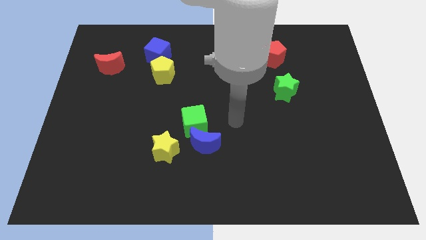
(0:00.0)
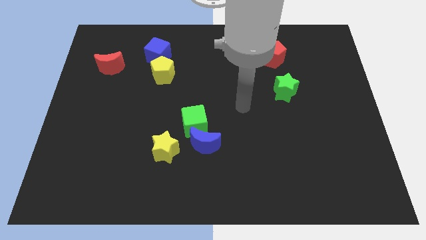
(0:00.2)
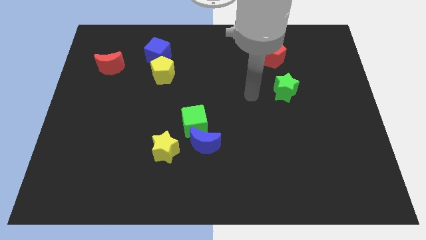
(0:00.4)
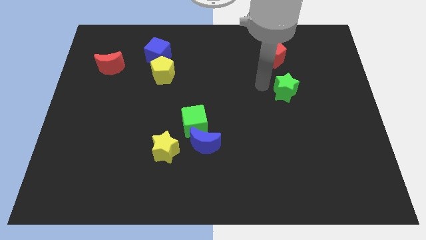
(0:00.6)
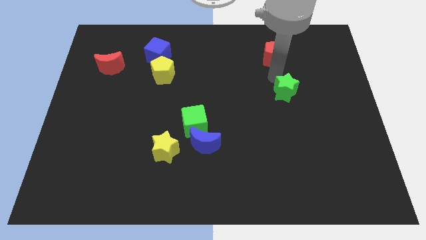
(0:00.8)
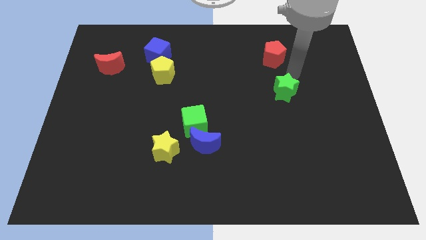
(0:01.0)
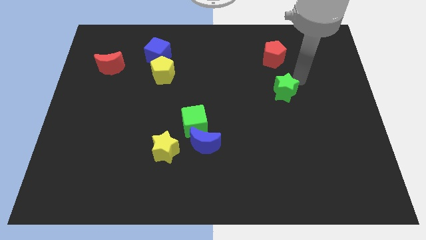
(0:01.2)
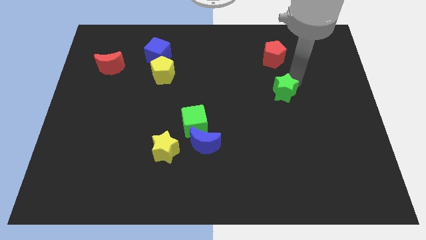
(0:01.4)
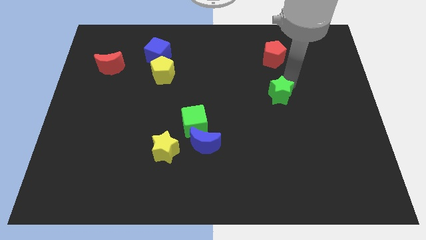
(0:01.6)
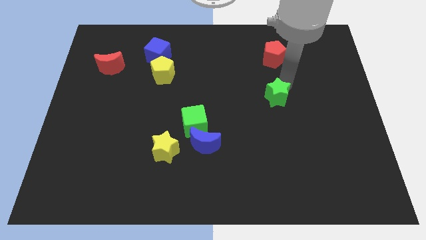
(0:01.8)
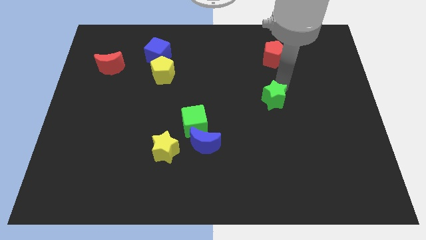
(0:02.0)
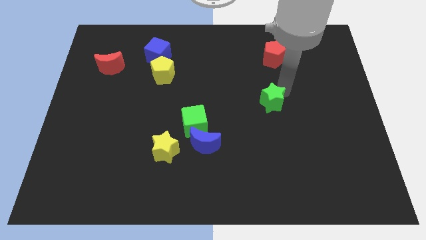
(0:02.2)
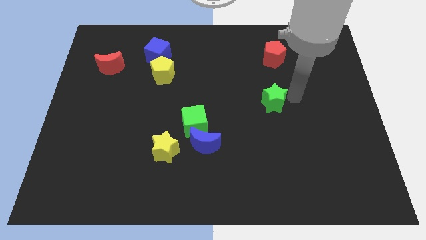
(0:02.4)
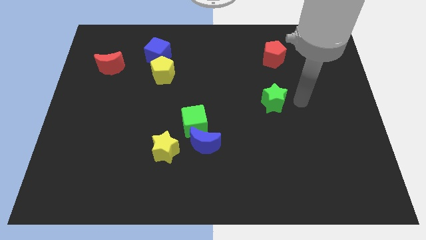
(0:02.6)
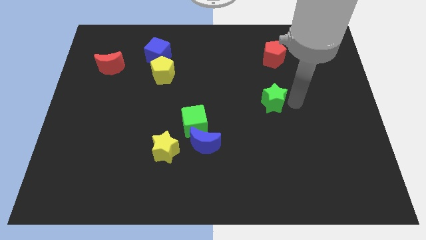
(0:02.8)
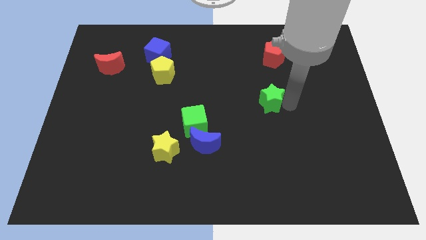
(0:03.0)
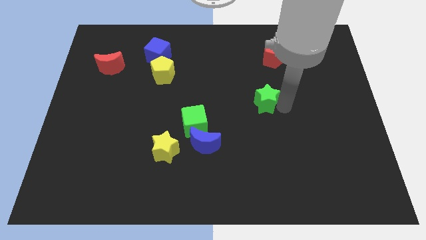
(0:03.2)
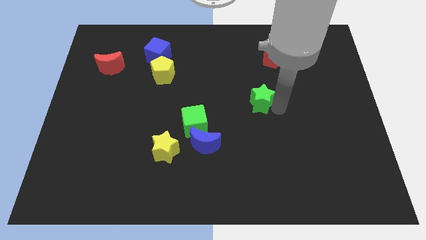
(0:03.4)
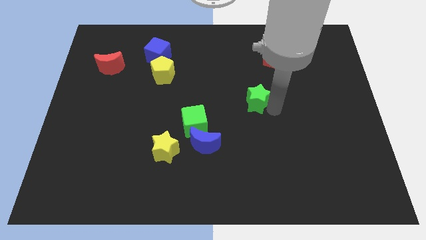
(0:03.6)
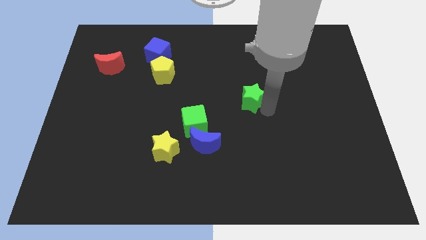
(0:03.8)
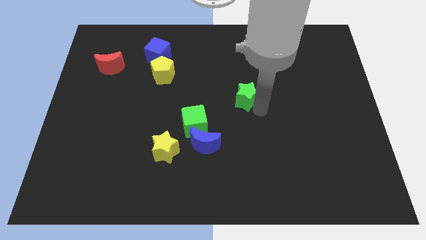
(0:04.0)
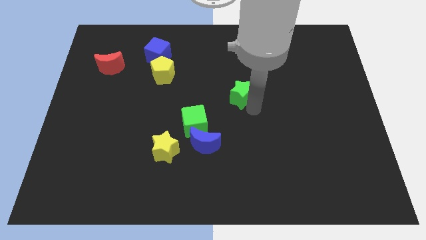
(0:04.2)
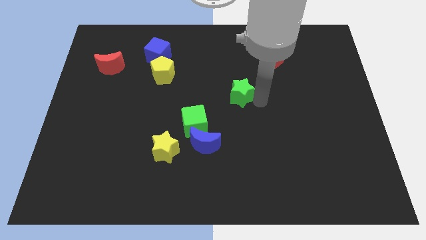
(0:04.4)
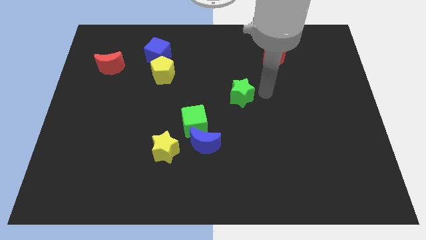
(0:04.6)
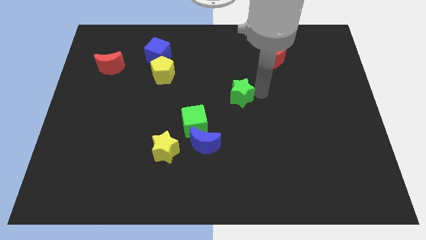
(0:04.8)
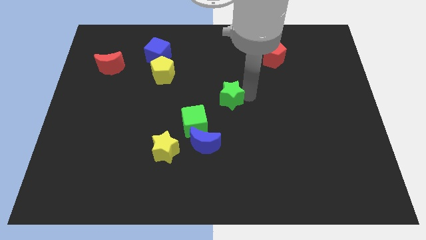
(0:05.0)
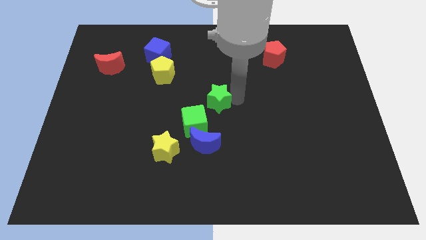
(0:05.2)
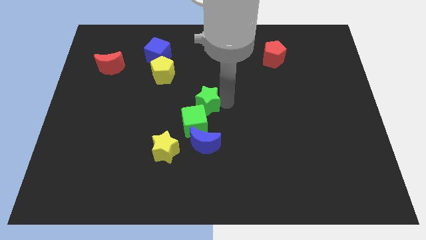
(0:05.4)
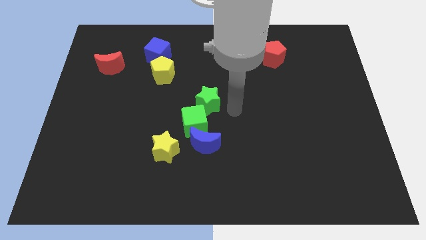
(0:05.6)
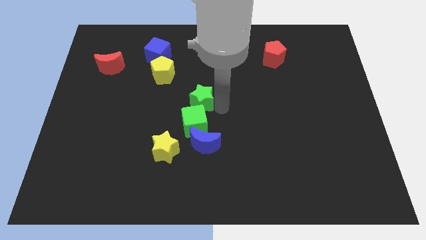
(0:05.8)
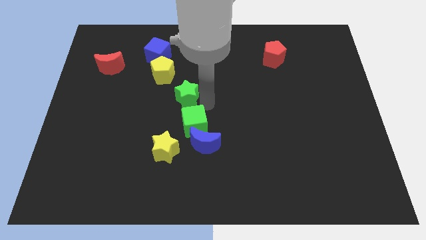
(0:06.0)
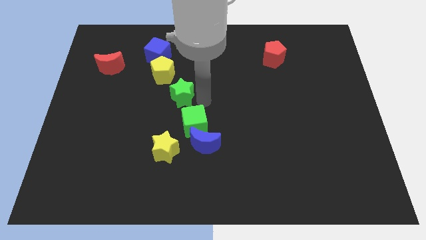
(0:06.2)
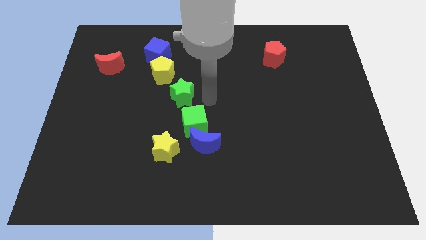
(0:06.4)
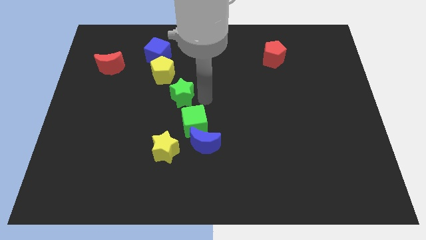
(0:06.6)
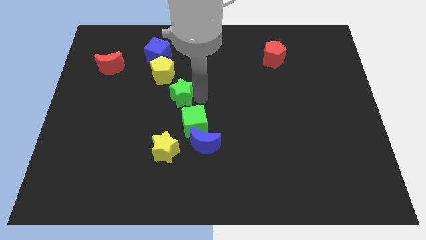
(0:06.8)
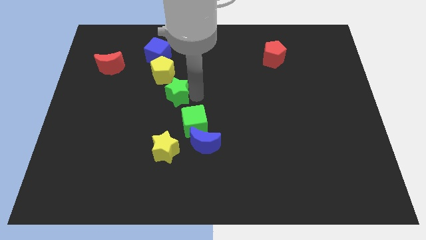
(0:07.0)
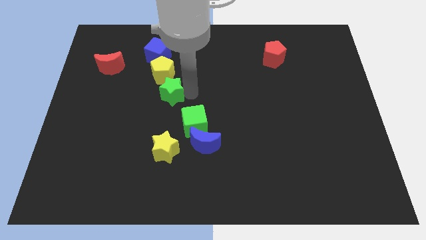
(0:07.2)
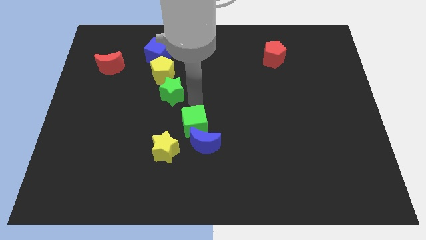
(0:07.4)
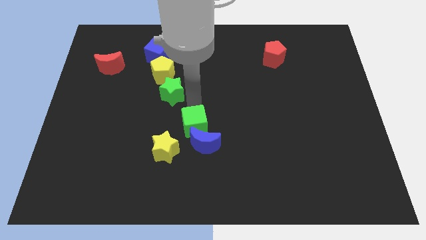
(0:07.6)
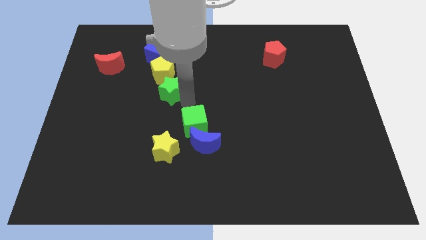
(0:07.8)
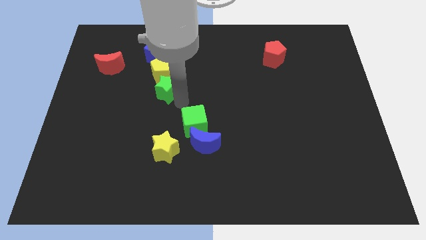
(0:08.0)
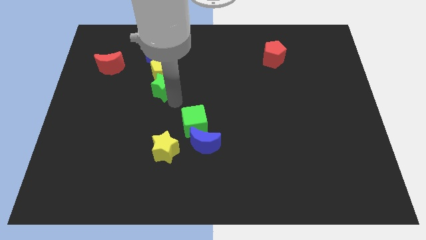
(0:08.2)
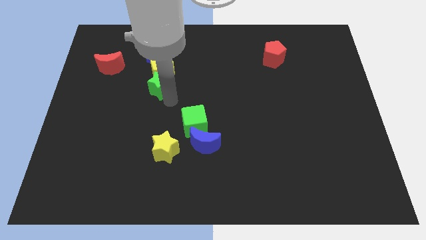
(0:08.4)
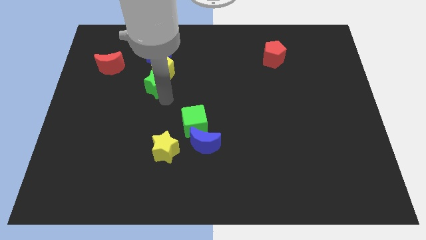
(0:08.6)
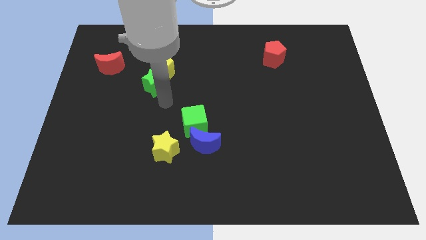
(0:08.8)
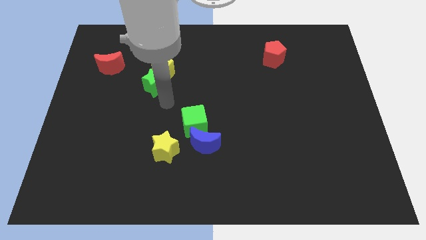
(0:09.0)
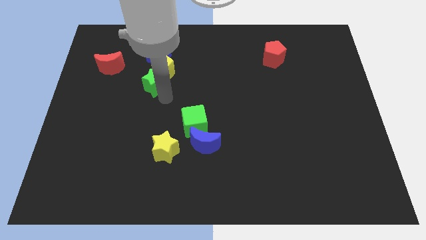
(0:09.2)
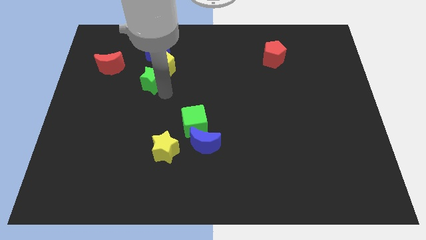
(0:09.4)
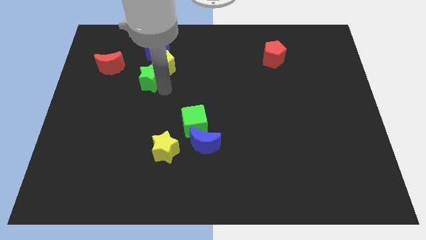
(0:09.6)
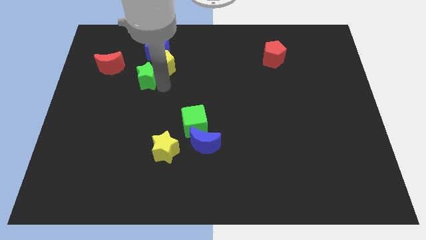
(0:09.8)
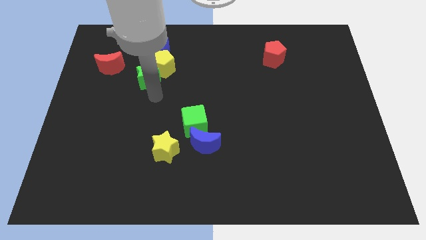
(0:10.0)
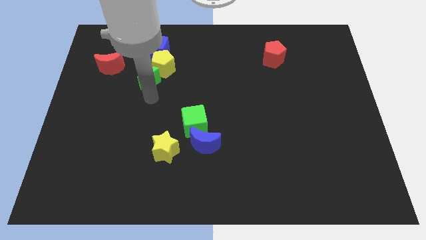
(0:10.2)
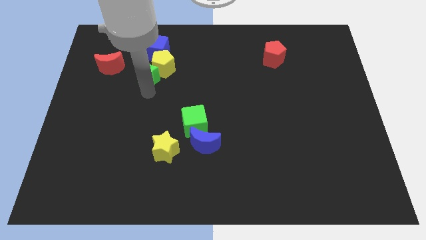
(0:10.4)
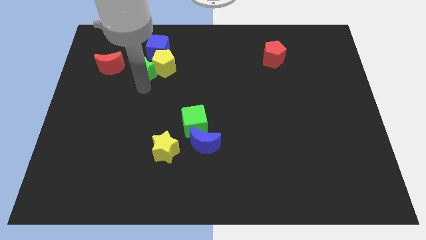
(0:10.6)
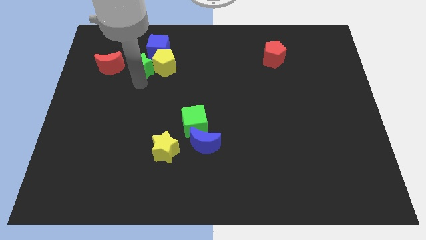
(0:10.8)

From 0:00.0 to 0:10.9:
slide the green star to the top left side of the yellow pentagon
